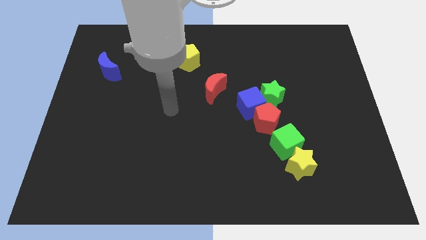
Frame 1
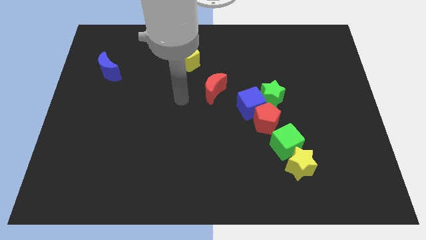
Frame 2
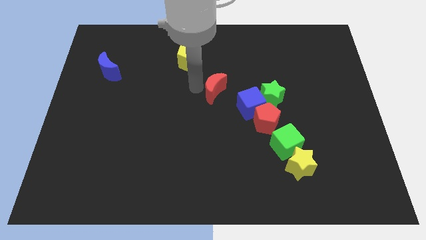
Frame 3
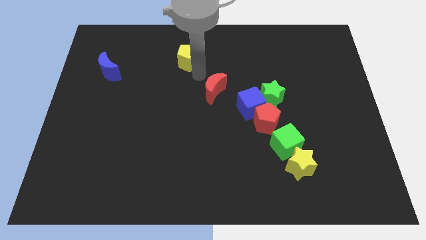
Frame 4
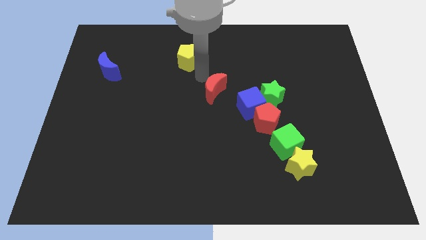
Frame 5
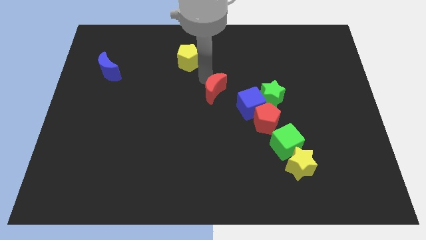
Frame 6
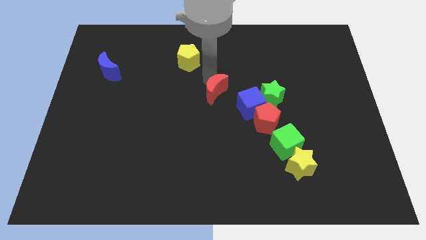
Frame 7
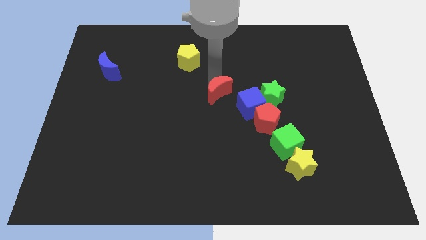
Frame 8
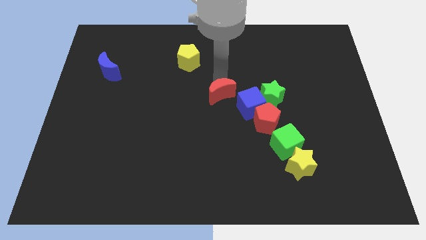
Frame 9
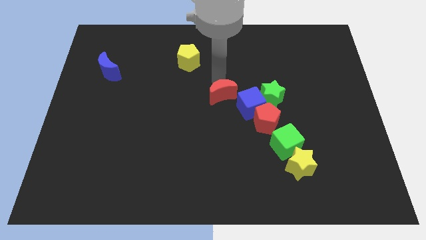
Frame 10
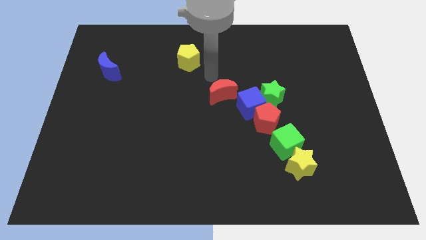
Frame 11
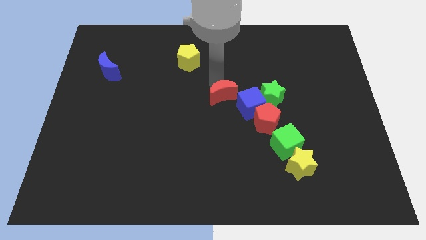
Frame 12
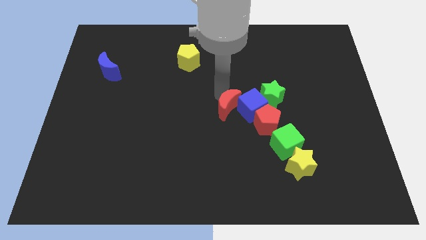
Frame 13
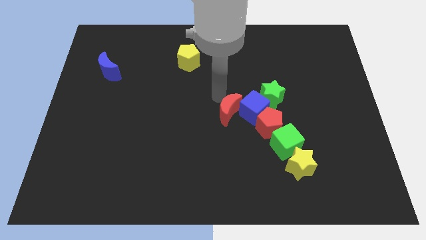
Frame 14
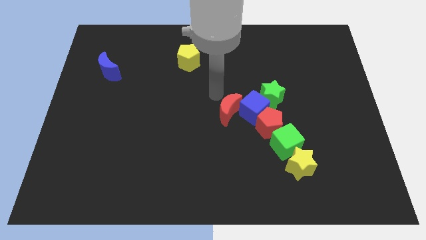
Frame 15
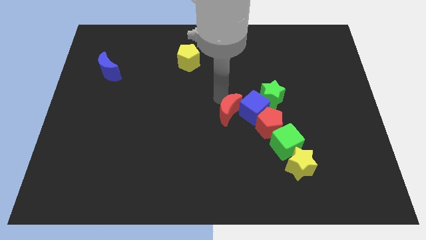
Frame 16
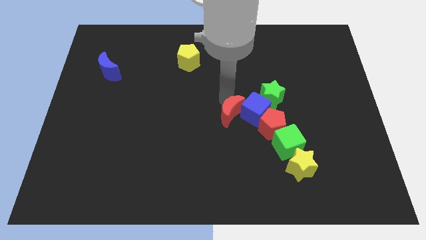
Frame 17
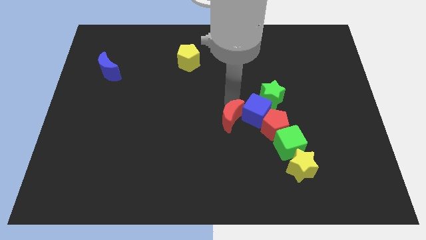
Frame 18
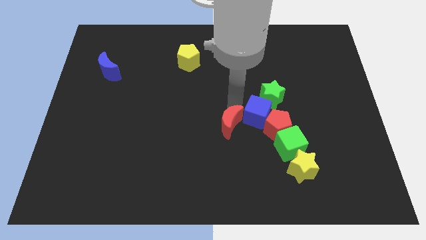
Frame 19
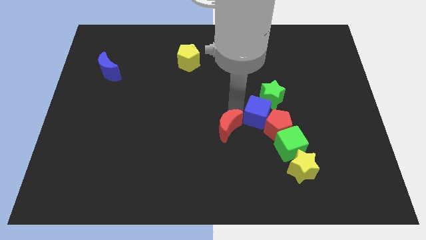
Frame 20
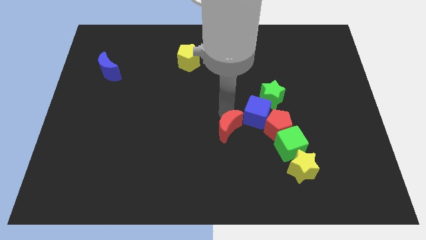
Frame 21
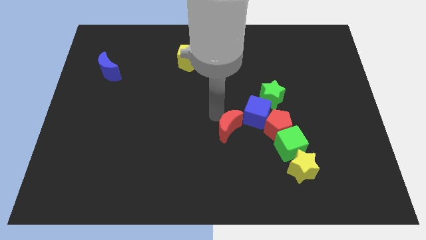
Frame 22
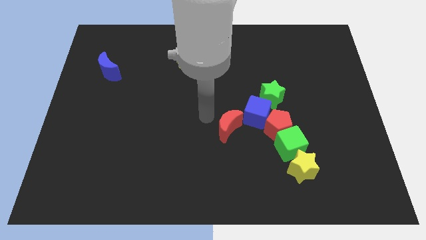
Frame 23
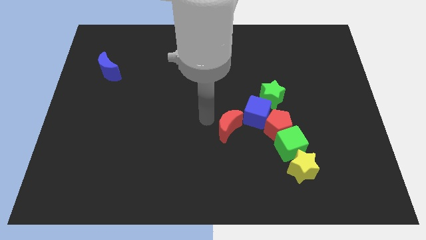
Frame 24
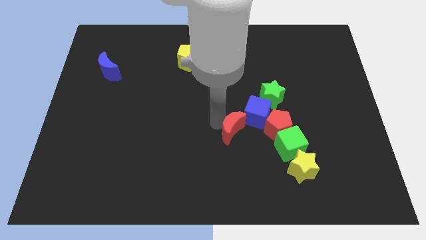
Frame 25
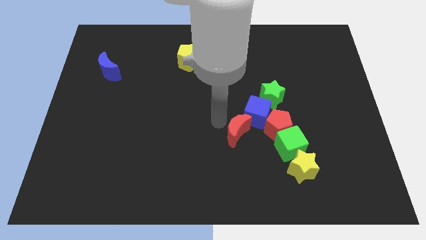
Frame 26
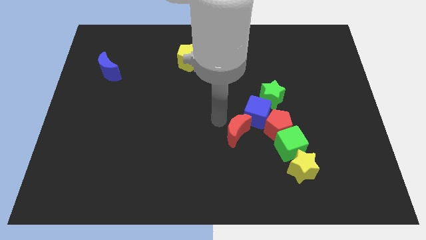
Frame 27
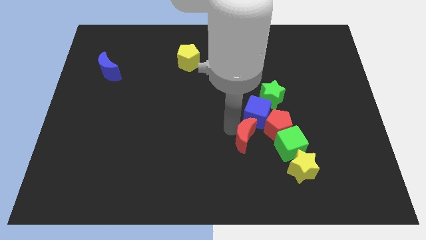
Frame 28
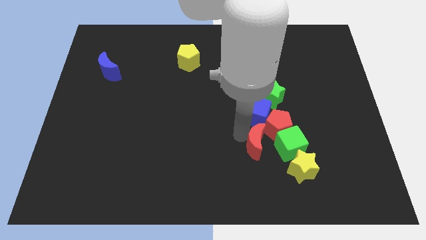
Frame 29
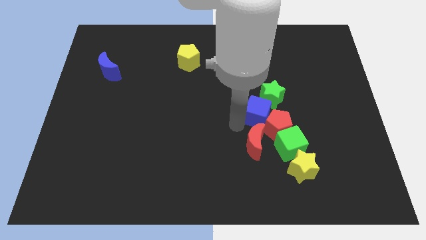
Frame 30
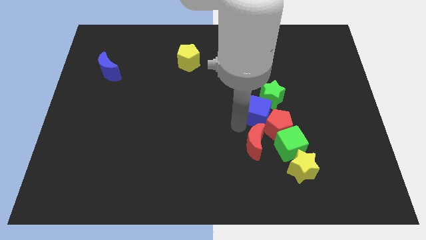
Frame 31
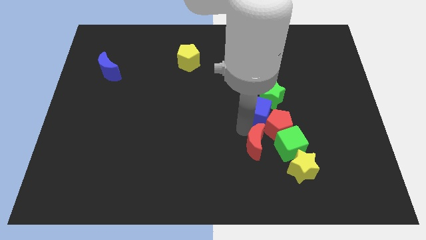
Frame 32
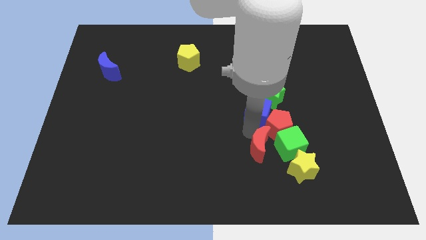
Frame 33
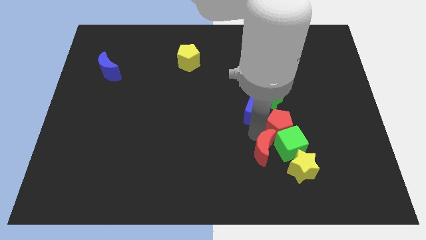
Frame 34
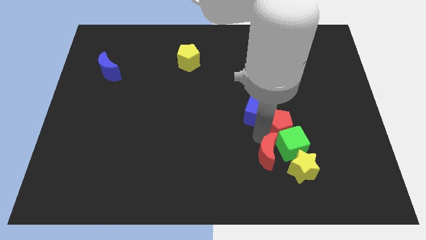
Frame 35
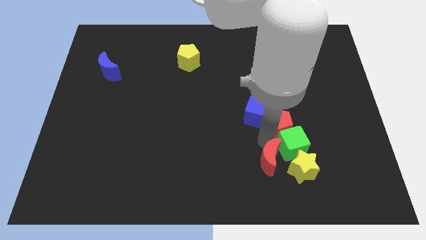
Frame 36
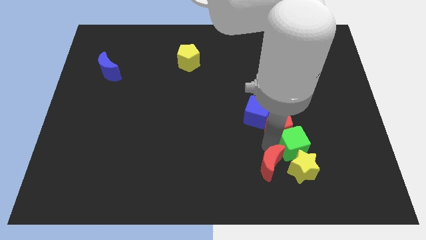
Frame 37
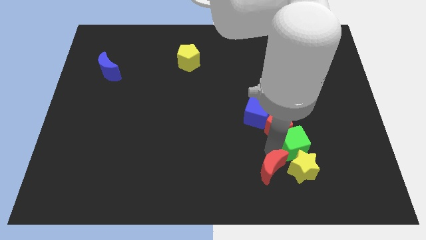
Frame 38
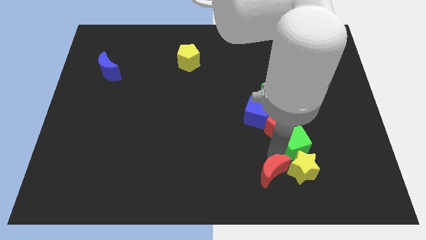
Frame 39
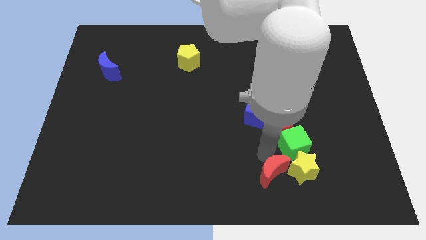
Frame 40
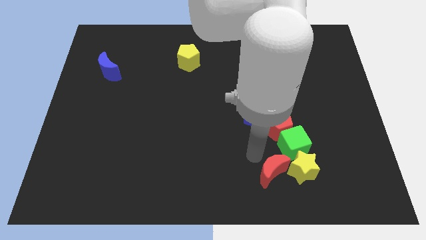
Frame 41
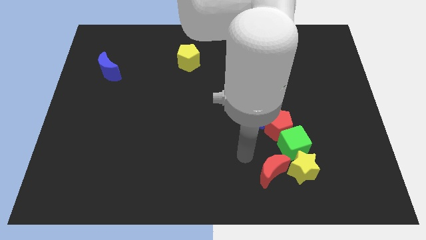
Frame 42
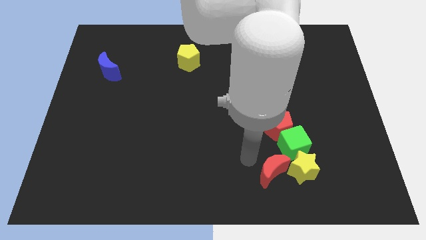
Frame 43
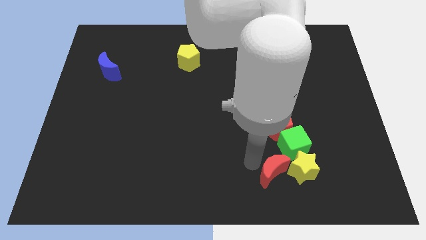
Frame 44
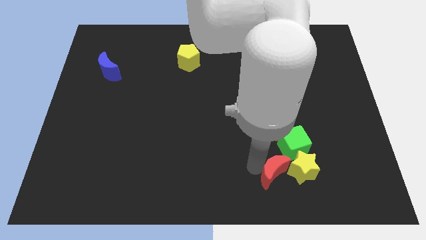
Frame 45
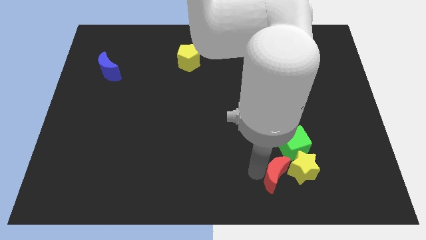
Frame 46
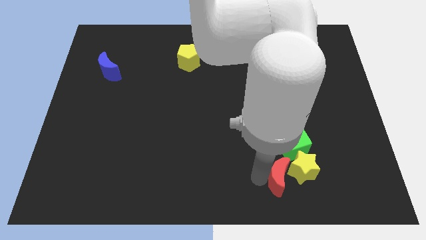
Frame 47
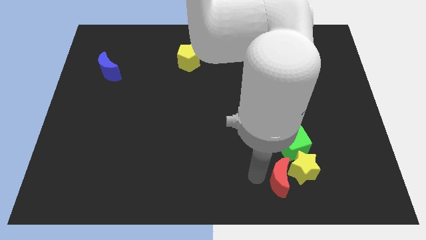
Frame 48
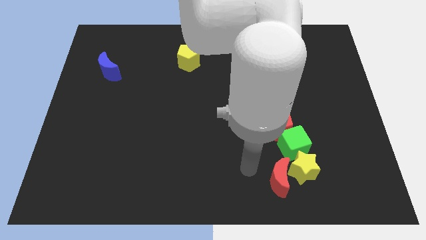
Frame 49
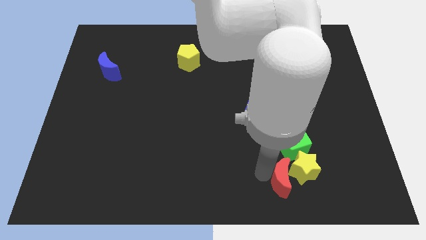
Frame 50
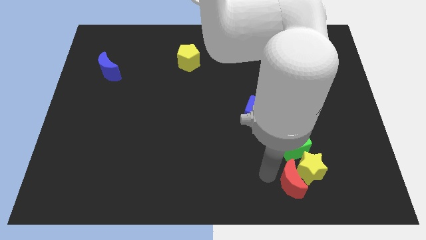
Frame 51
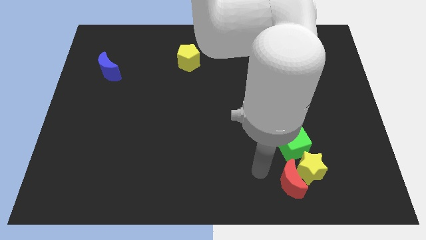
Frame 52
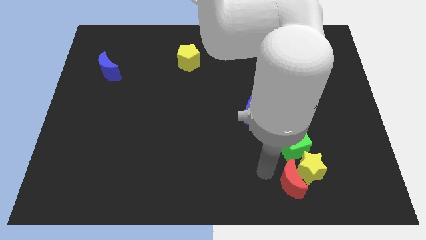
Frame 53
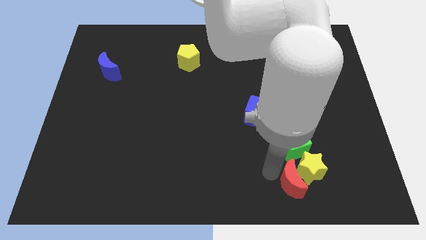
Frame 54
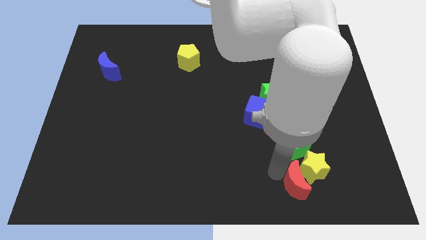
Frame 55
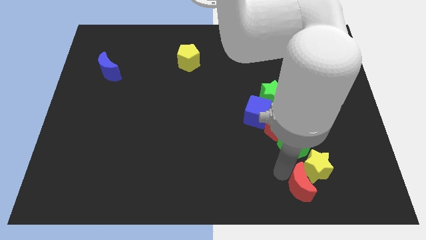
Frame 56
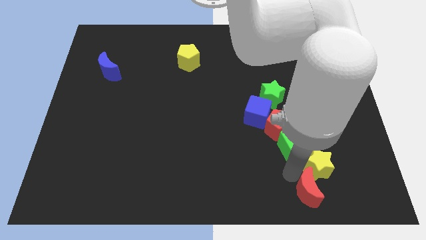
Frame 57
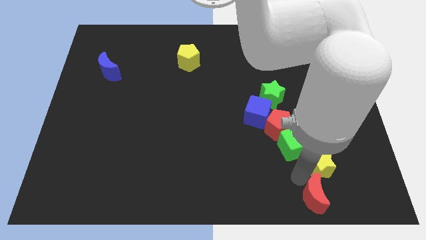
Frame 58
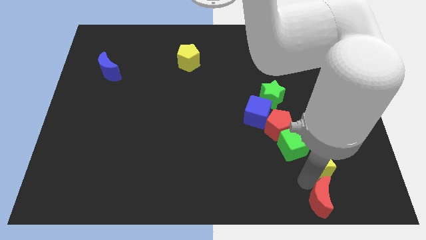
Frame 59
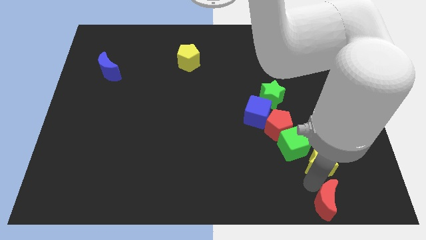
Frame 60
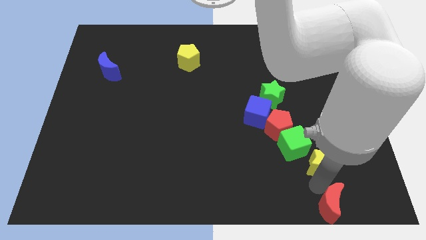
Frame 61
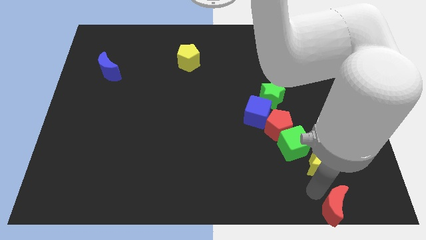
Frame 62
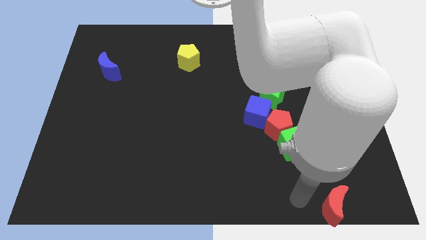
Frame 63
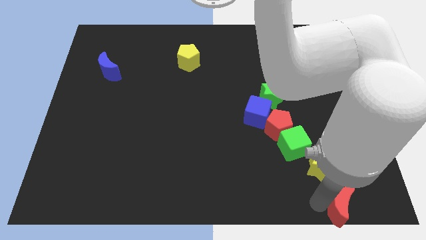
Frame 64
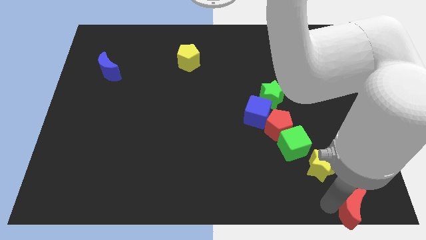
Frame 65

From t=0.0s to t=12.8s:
slide the red moon to the bottom right
